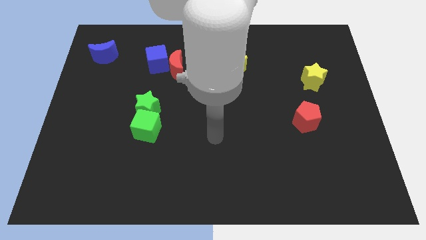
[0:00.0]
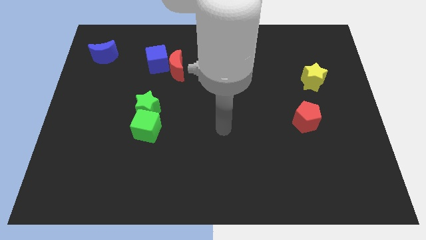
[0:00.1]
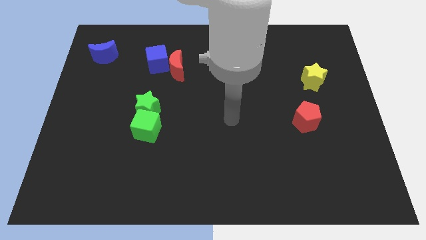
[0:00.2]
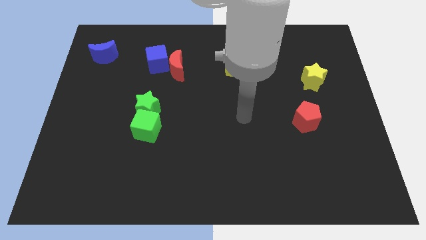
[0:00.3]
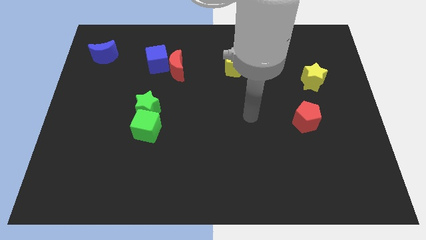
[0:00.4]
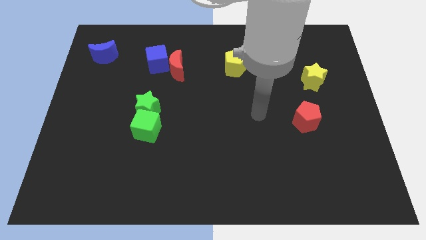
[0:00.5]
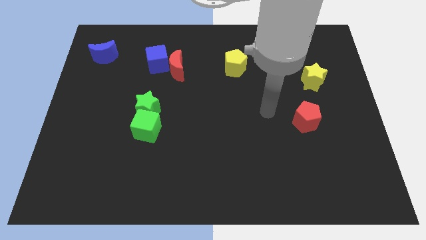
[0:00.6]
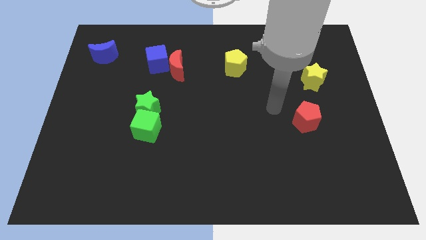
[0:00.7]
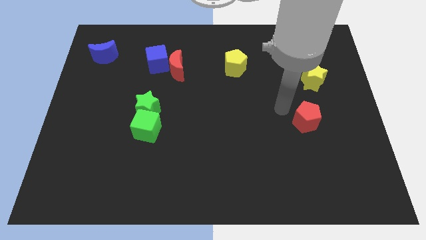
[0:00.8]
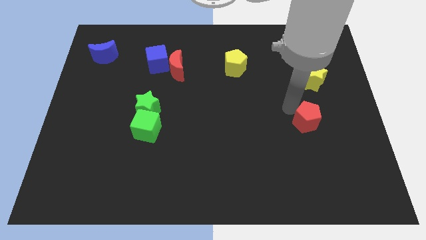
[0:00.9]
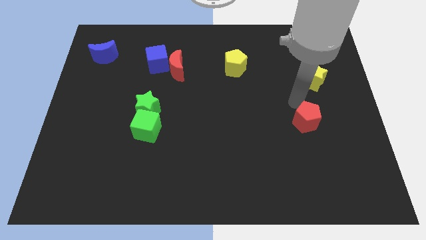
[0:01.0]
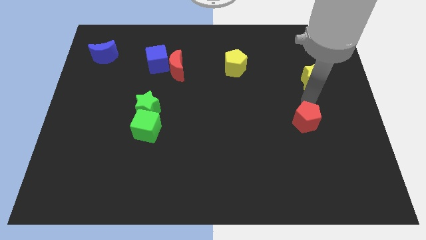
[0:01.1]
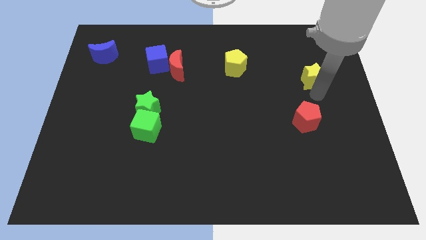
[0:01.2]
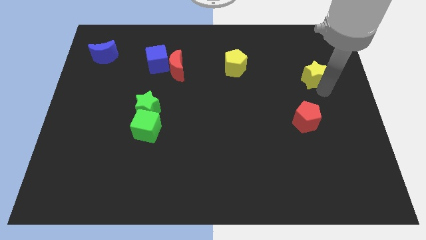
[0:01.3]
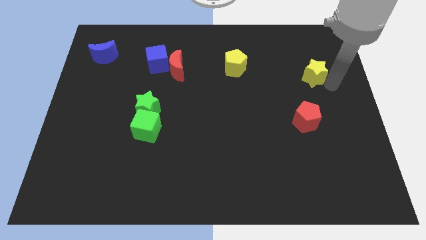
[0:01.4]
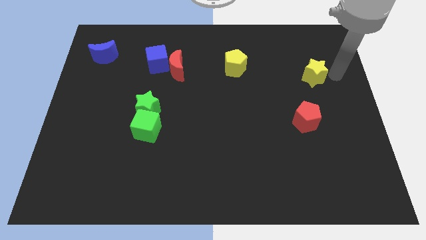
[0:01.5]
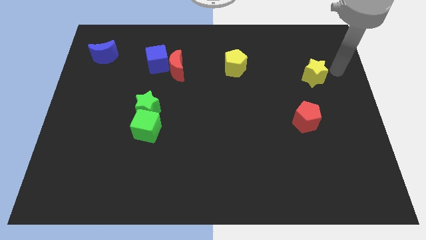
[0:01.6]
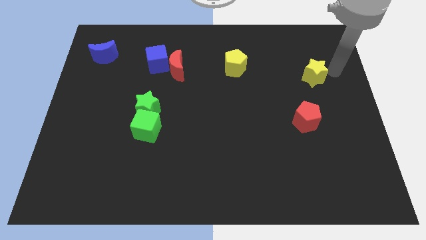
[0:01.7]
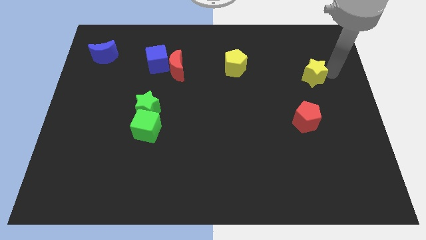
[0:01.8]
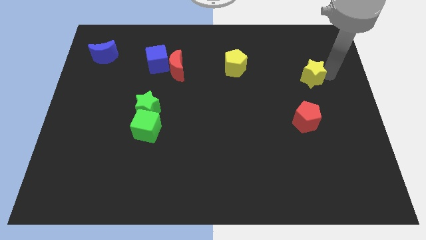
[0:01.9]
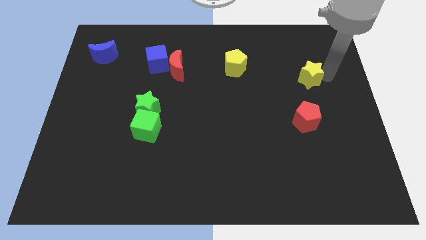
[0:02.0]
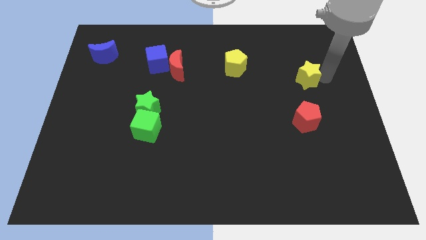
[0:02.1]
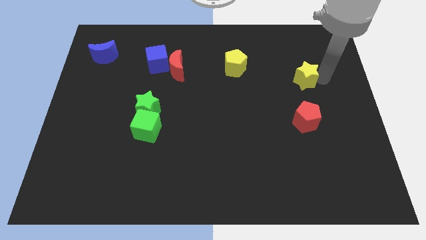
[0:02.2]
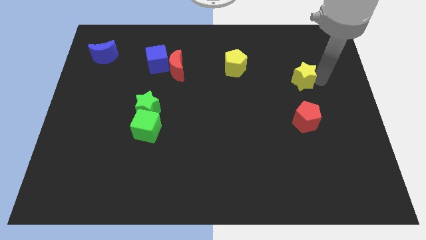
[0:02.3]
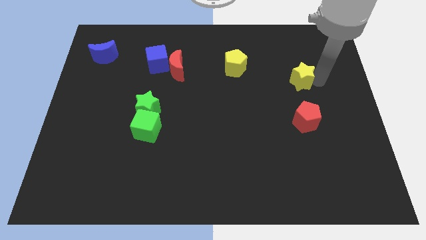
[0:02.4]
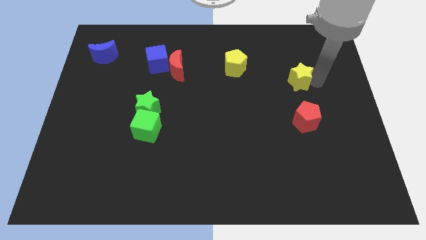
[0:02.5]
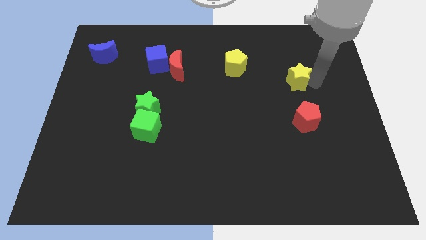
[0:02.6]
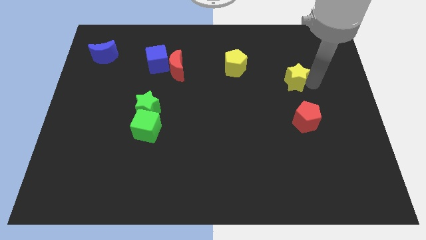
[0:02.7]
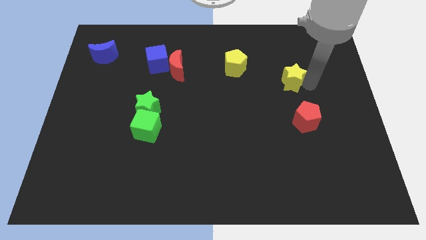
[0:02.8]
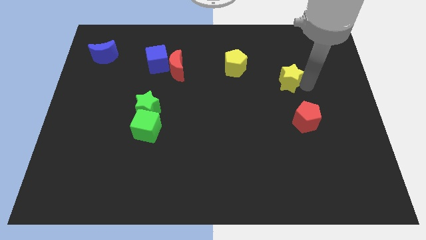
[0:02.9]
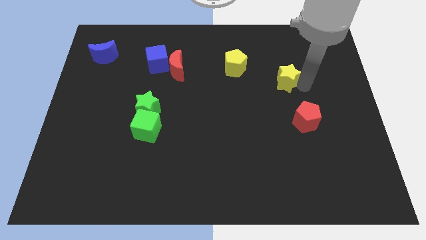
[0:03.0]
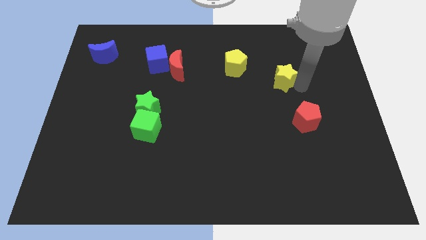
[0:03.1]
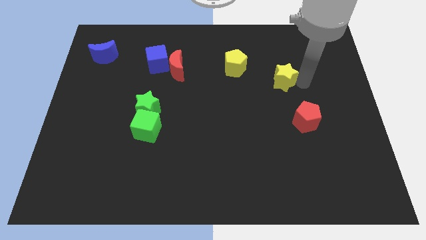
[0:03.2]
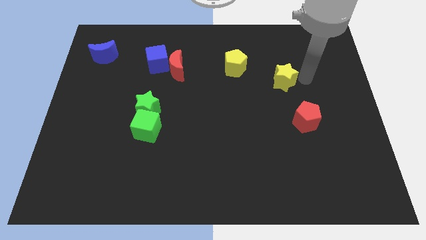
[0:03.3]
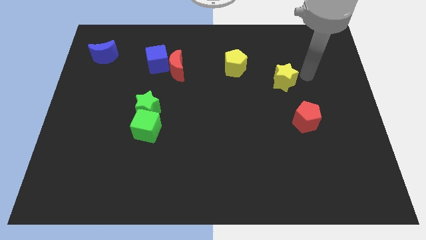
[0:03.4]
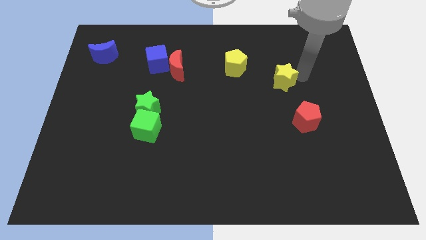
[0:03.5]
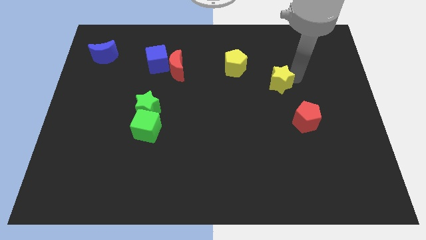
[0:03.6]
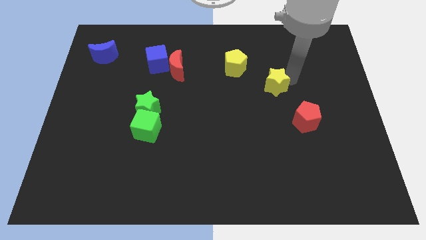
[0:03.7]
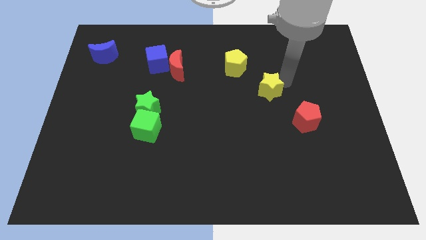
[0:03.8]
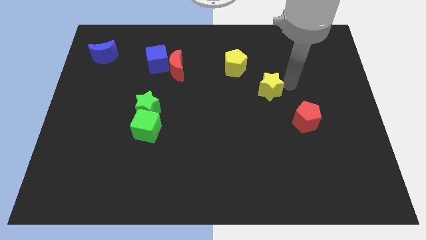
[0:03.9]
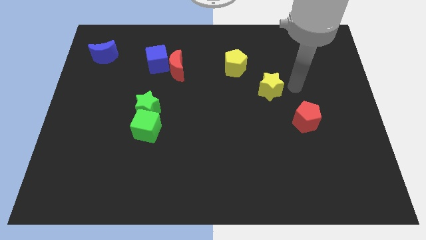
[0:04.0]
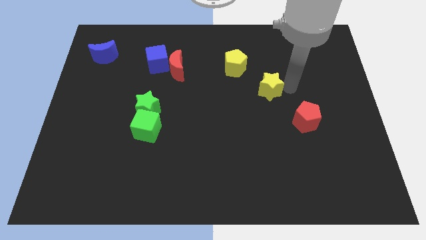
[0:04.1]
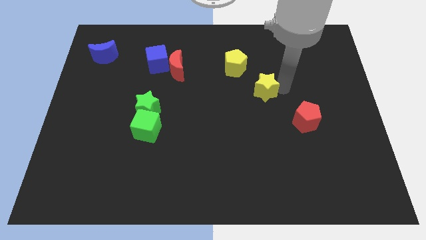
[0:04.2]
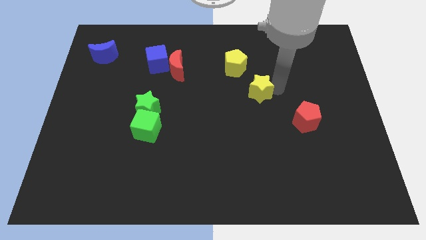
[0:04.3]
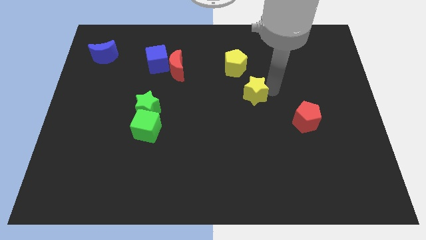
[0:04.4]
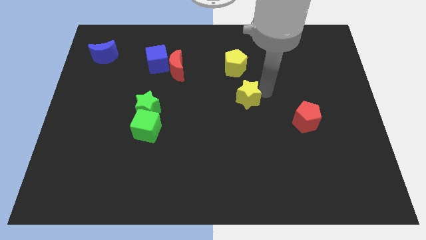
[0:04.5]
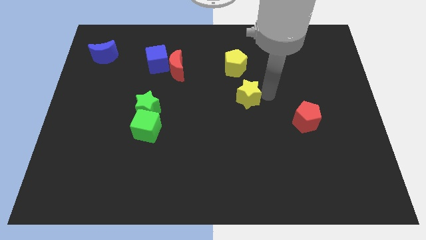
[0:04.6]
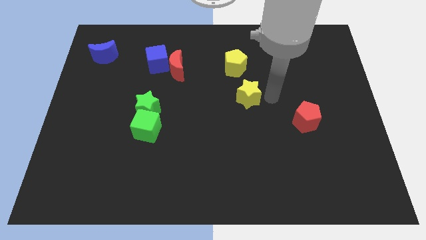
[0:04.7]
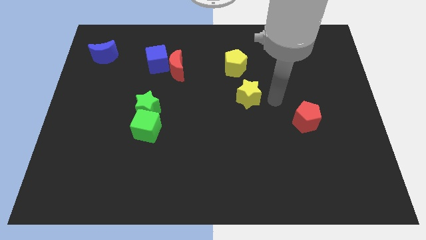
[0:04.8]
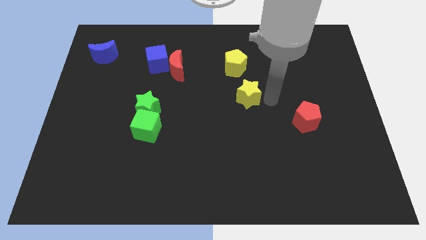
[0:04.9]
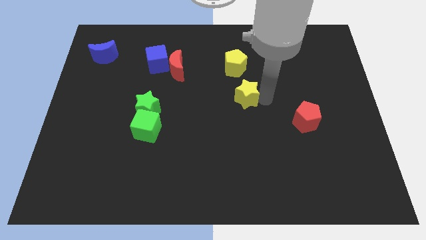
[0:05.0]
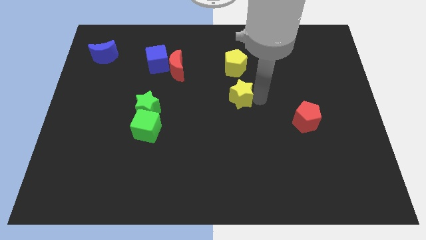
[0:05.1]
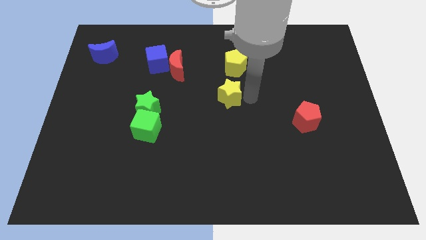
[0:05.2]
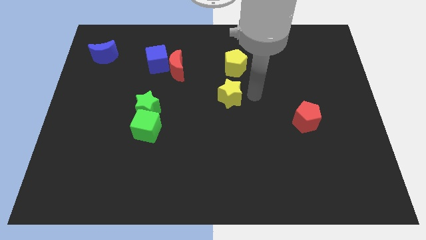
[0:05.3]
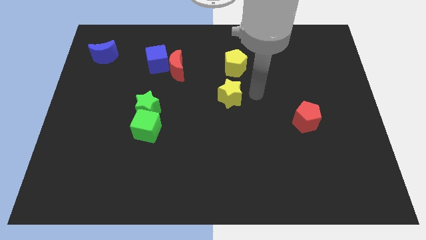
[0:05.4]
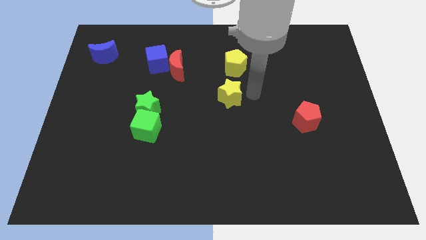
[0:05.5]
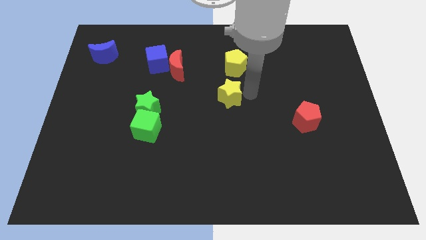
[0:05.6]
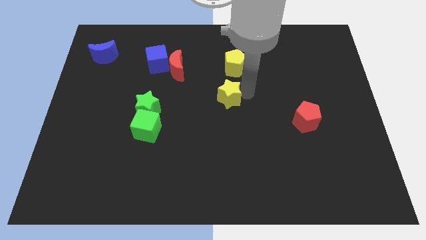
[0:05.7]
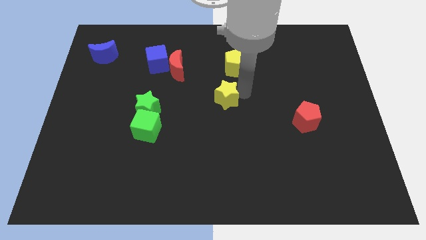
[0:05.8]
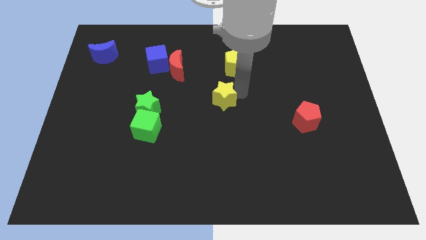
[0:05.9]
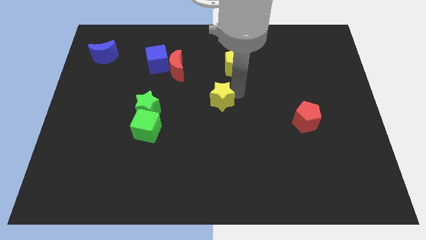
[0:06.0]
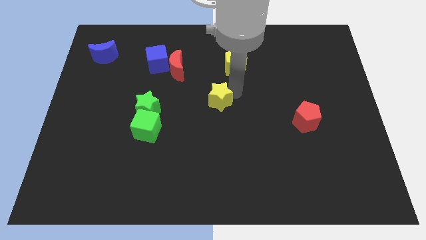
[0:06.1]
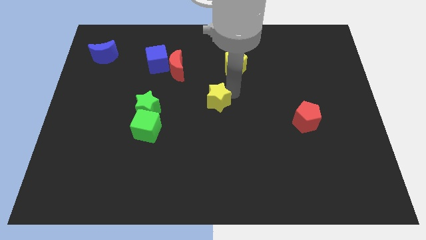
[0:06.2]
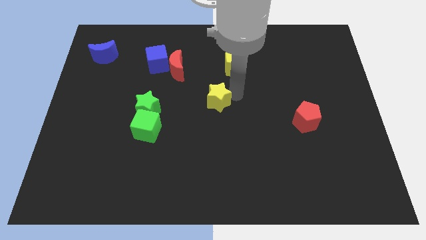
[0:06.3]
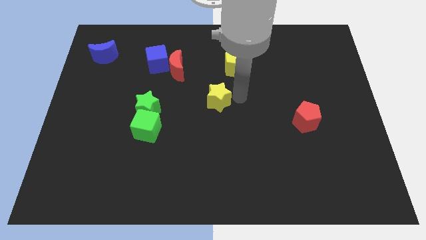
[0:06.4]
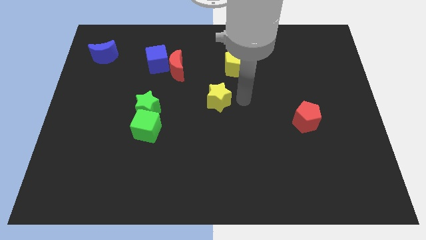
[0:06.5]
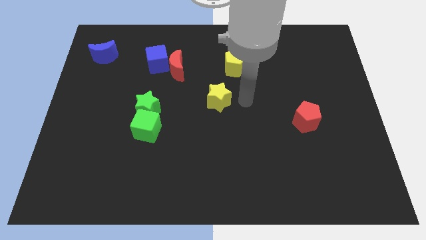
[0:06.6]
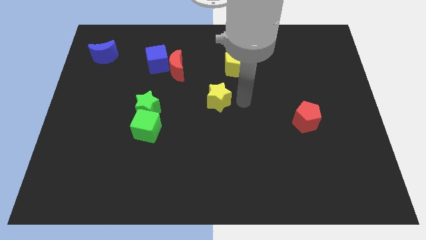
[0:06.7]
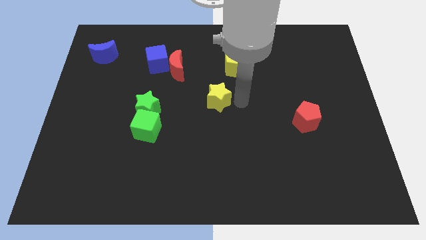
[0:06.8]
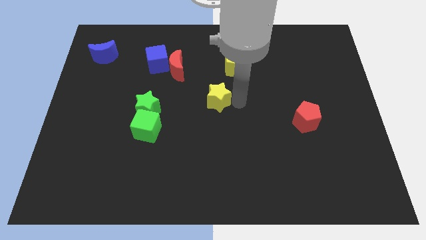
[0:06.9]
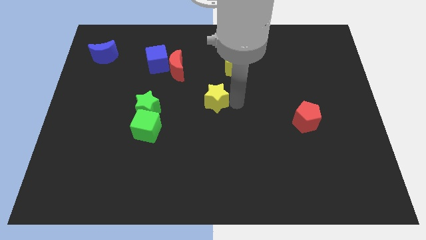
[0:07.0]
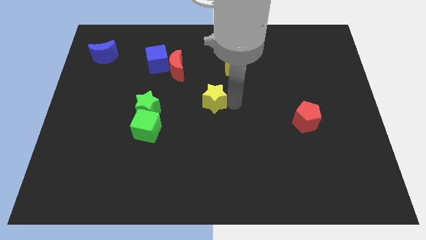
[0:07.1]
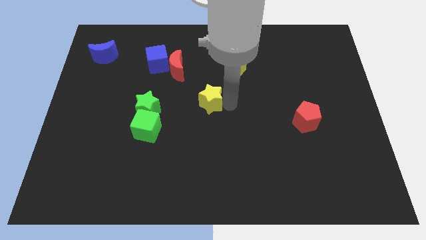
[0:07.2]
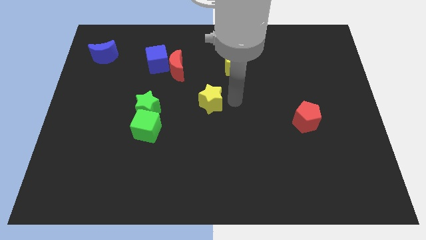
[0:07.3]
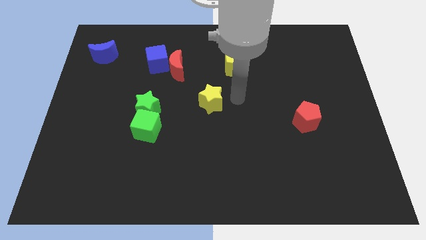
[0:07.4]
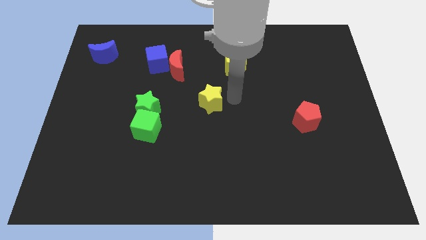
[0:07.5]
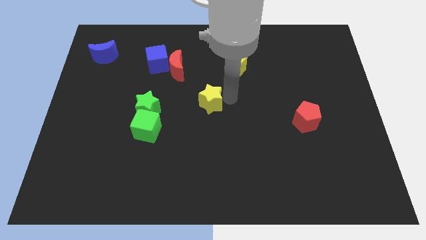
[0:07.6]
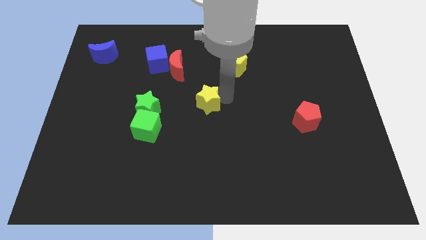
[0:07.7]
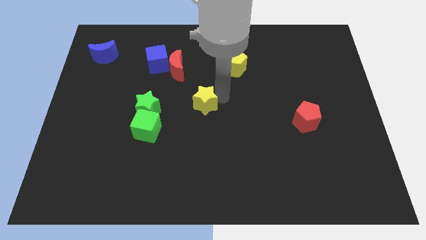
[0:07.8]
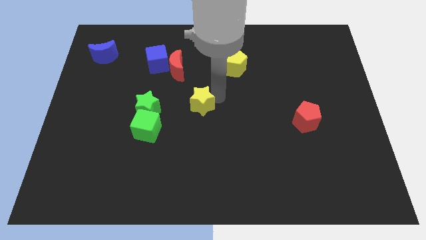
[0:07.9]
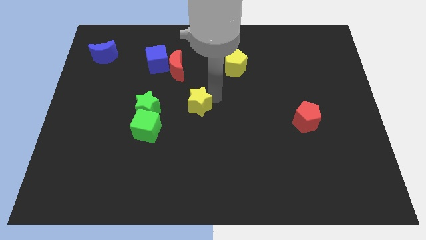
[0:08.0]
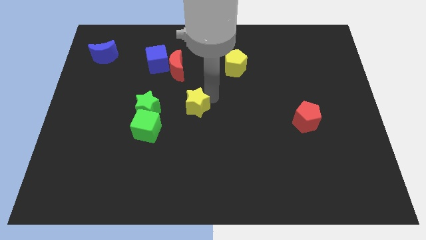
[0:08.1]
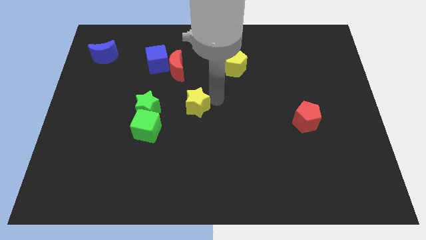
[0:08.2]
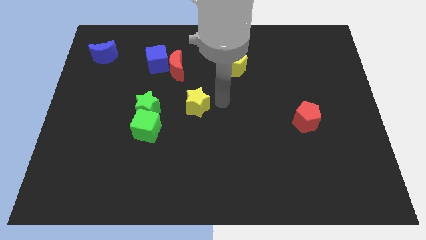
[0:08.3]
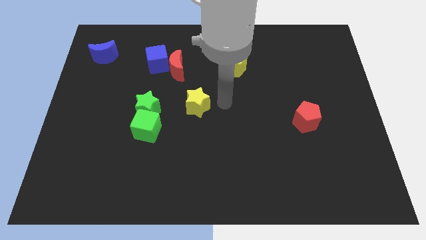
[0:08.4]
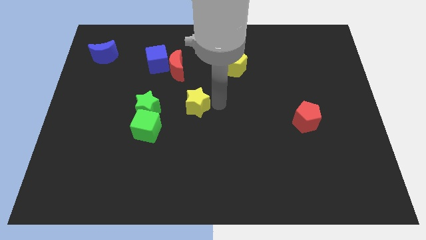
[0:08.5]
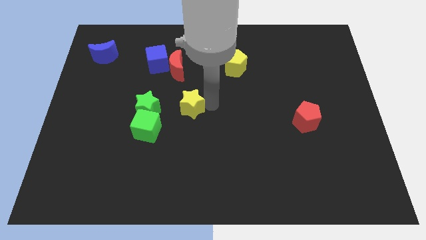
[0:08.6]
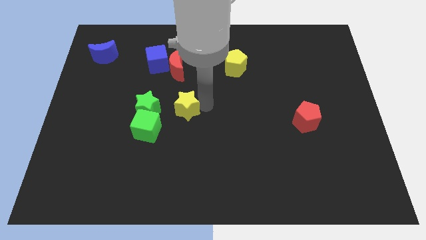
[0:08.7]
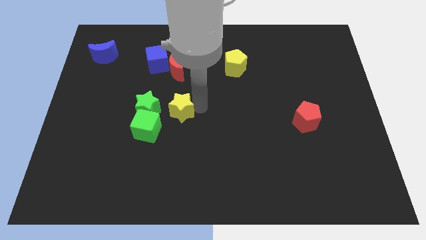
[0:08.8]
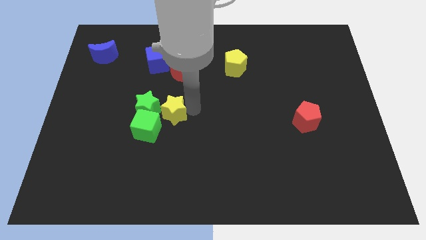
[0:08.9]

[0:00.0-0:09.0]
push the yellow star to the green star
